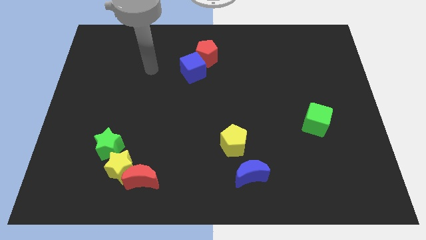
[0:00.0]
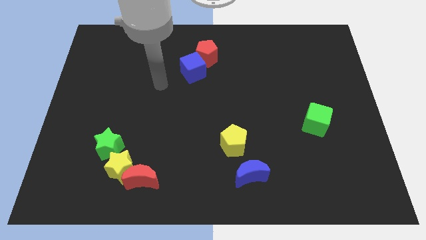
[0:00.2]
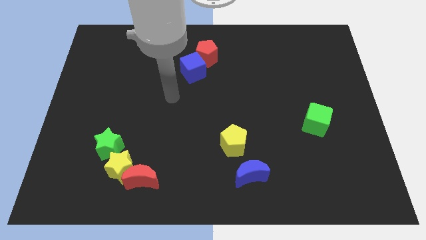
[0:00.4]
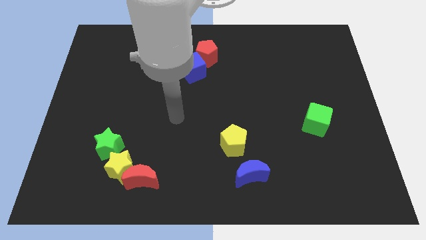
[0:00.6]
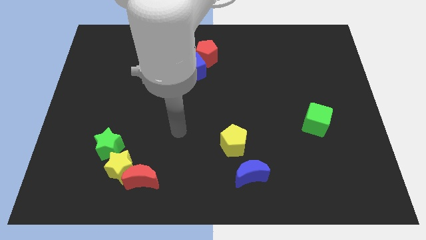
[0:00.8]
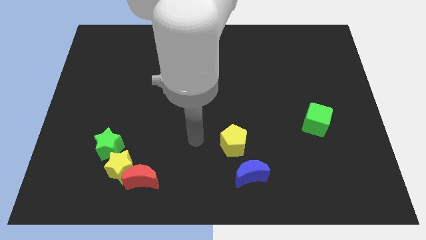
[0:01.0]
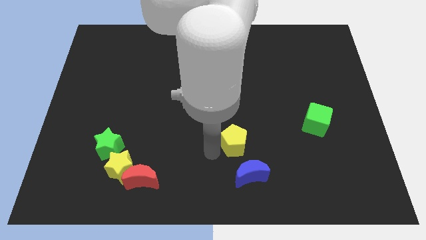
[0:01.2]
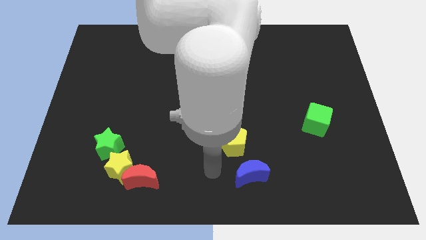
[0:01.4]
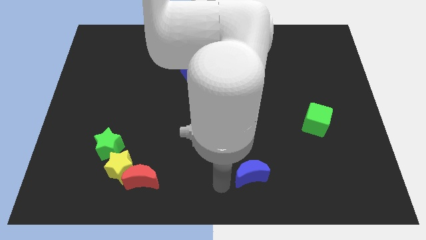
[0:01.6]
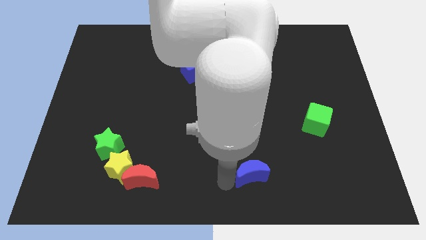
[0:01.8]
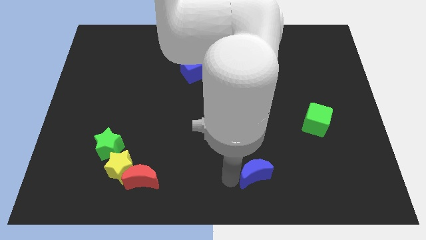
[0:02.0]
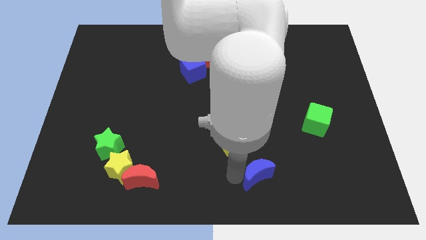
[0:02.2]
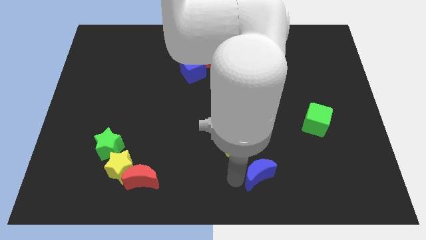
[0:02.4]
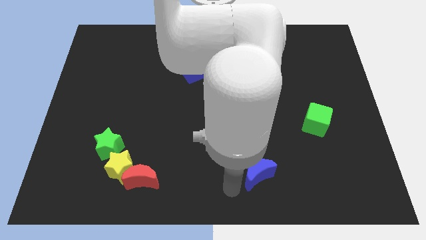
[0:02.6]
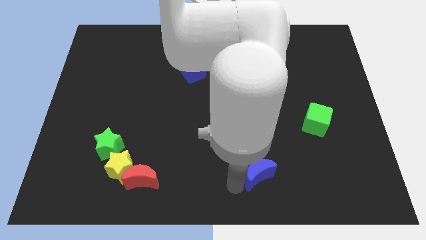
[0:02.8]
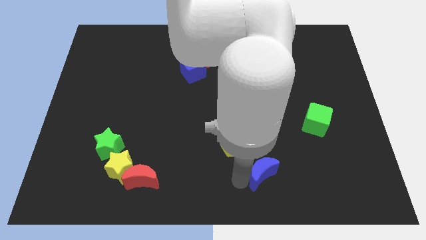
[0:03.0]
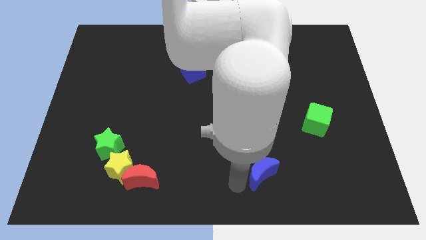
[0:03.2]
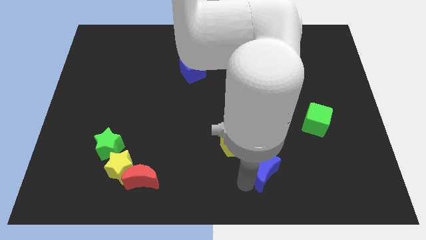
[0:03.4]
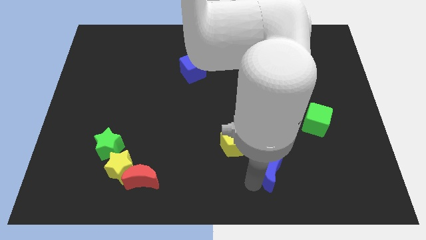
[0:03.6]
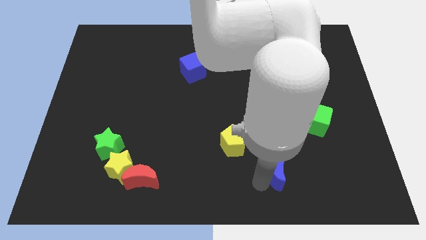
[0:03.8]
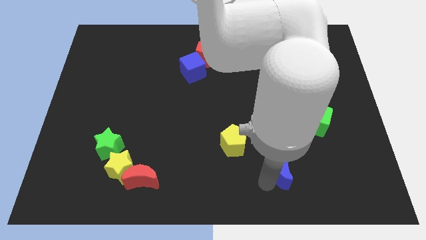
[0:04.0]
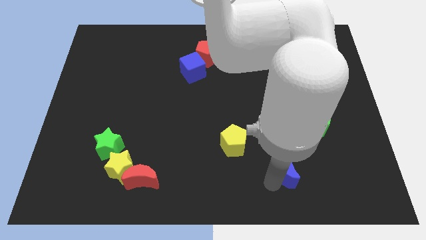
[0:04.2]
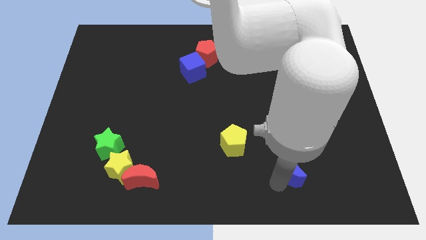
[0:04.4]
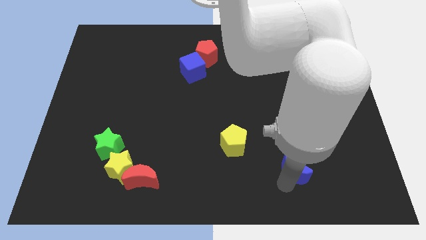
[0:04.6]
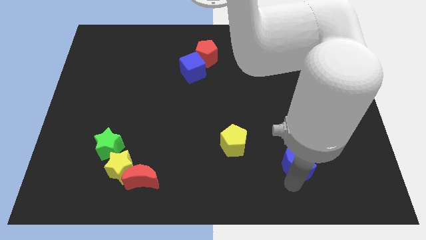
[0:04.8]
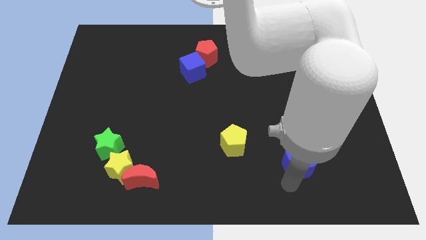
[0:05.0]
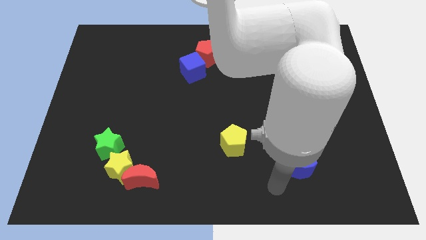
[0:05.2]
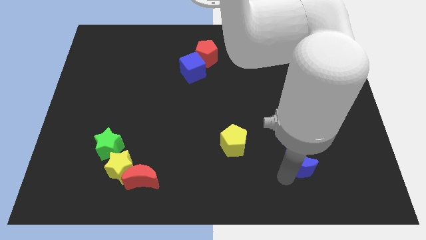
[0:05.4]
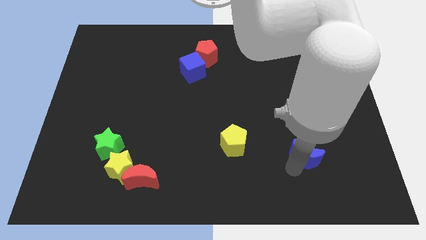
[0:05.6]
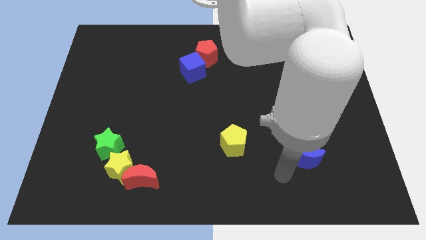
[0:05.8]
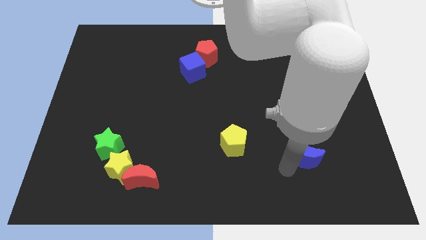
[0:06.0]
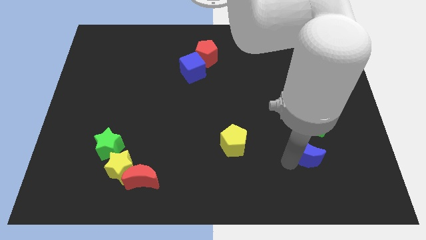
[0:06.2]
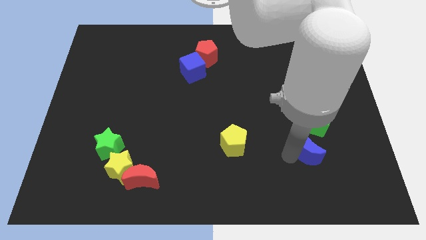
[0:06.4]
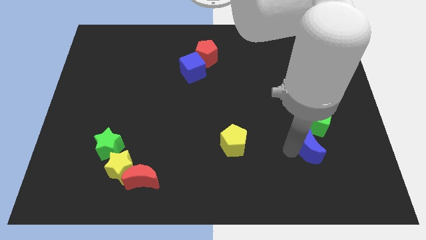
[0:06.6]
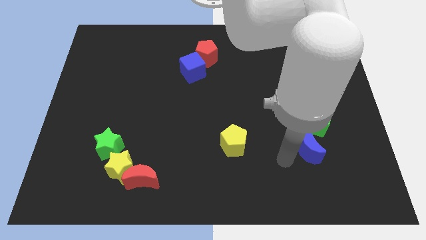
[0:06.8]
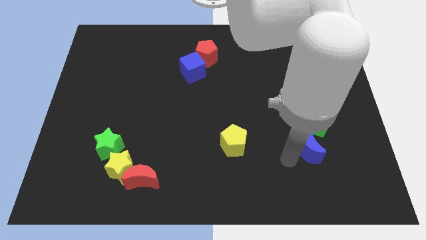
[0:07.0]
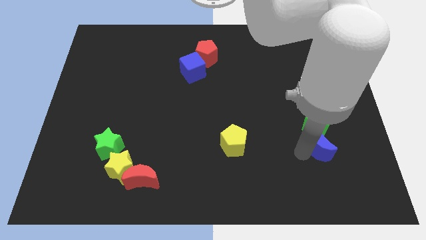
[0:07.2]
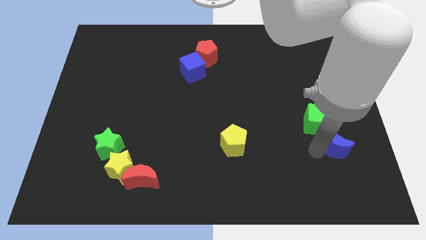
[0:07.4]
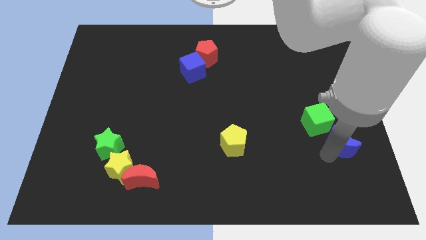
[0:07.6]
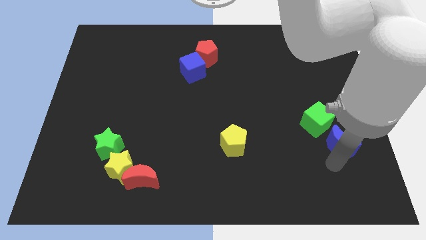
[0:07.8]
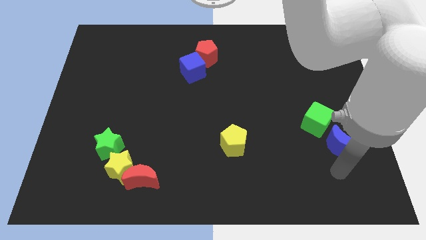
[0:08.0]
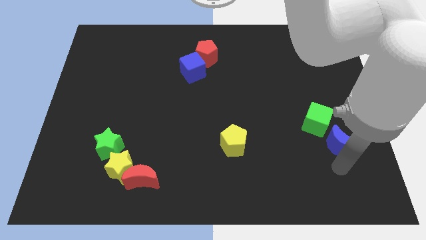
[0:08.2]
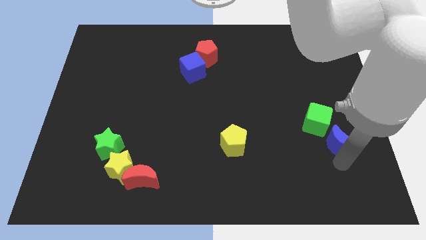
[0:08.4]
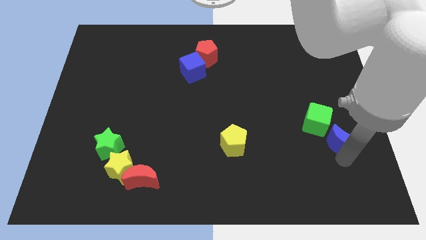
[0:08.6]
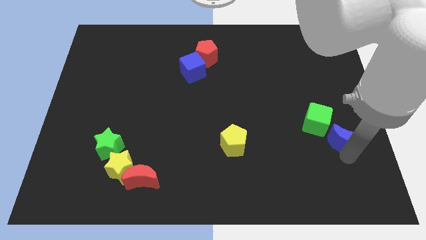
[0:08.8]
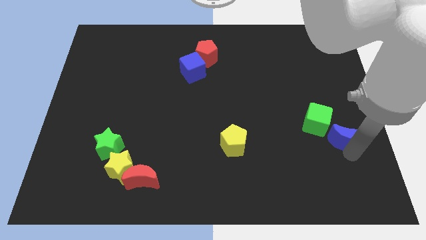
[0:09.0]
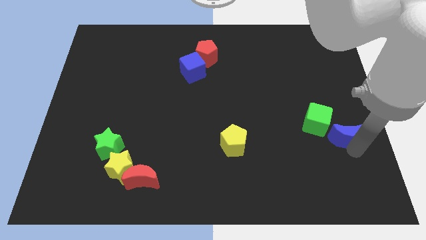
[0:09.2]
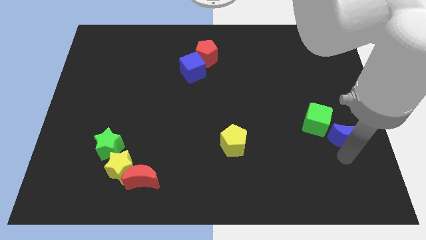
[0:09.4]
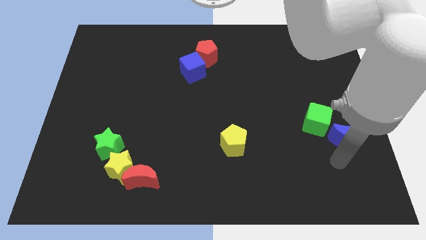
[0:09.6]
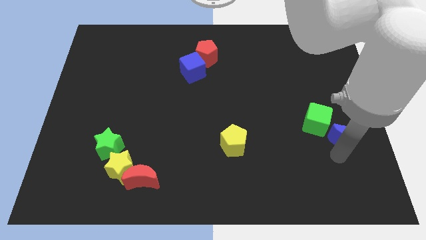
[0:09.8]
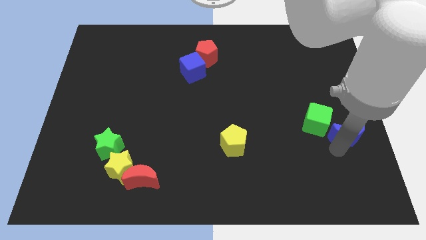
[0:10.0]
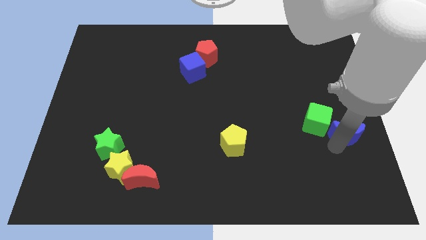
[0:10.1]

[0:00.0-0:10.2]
move the blue moon to the center right

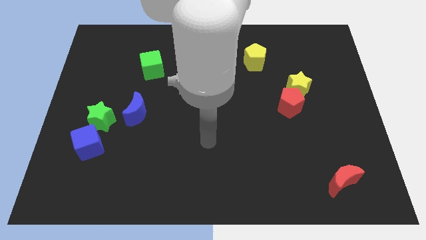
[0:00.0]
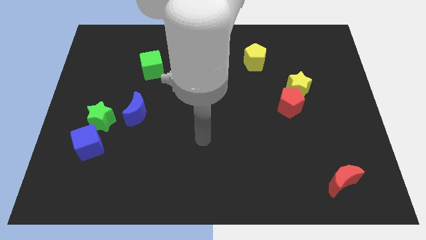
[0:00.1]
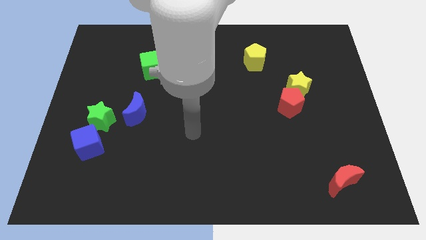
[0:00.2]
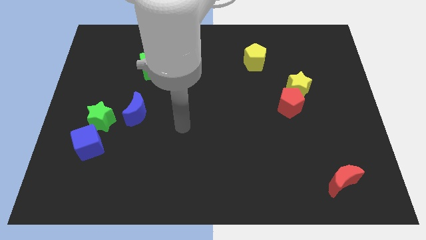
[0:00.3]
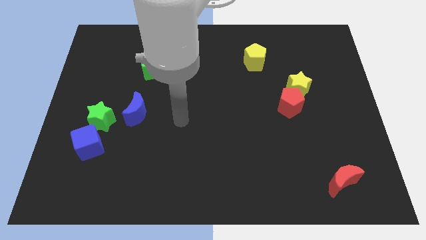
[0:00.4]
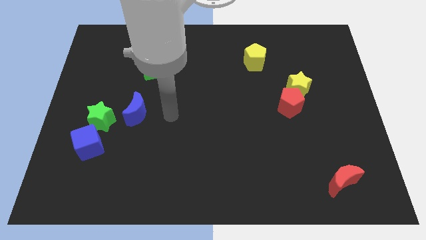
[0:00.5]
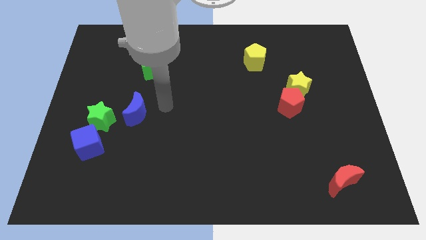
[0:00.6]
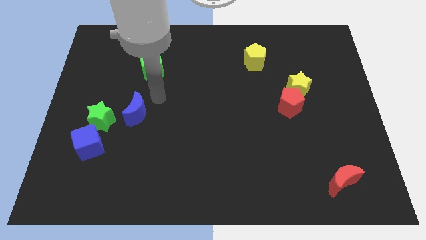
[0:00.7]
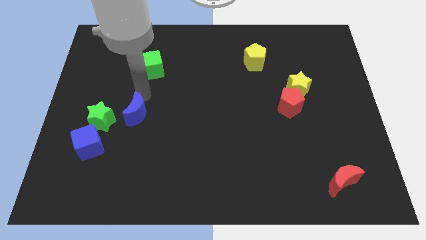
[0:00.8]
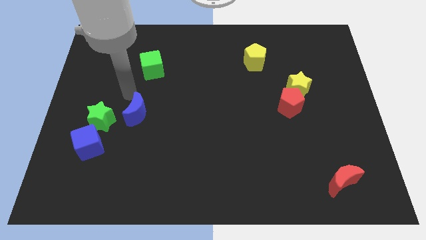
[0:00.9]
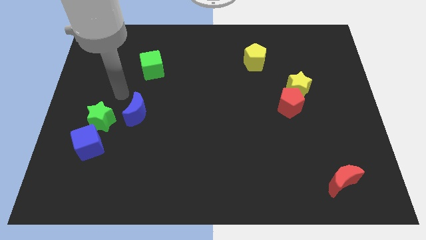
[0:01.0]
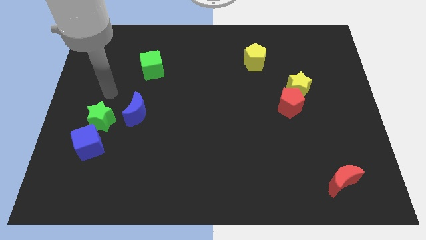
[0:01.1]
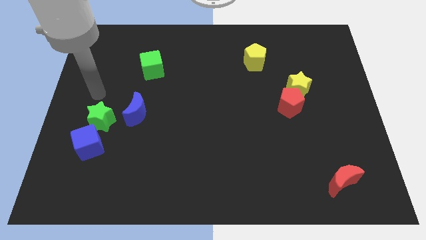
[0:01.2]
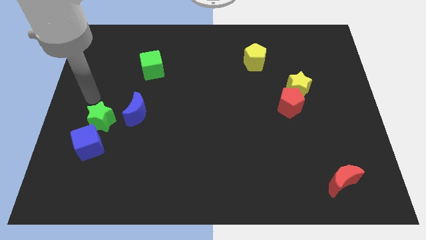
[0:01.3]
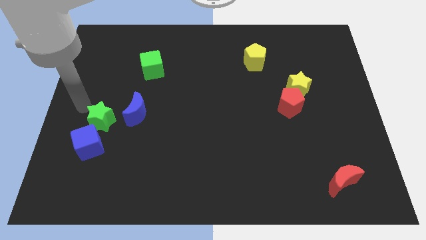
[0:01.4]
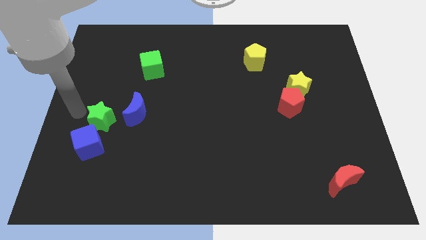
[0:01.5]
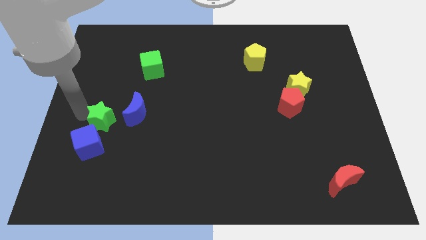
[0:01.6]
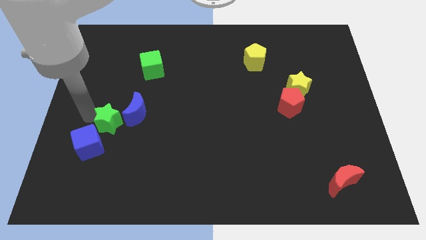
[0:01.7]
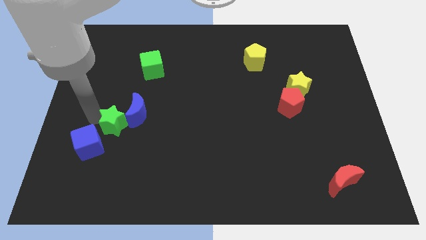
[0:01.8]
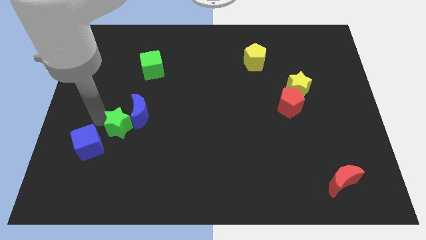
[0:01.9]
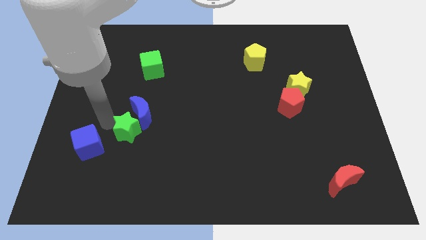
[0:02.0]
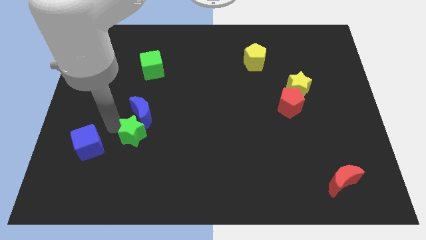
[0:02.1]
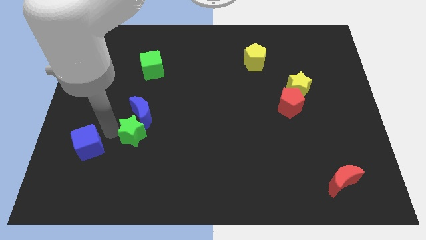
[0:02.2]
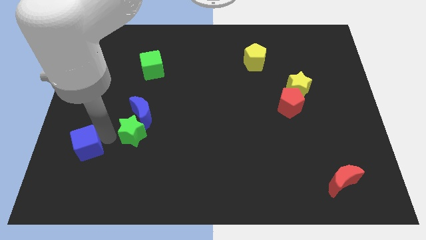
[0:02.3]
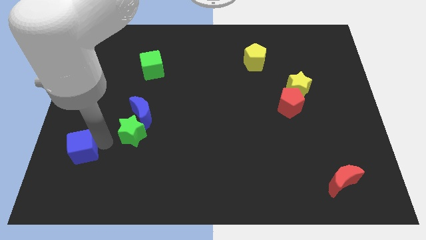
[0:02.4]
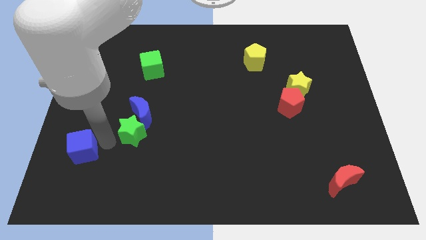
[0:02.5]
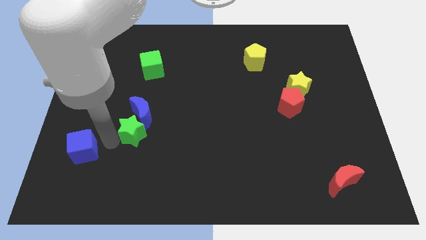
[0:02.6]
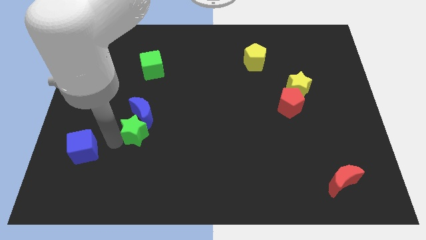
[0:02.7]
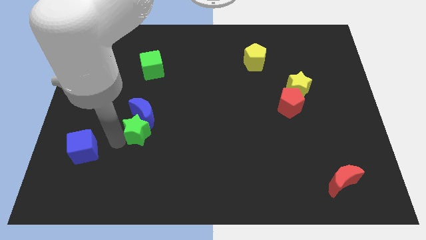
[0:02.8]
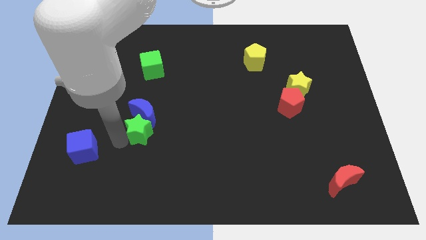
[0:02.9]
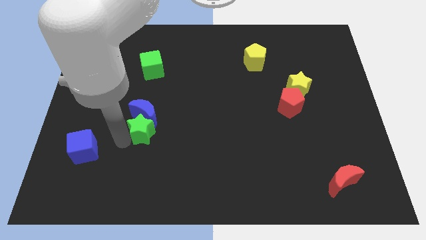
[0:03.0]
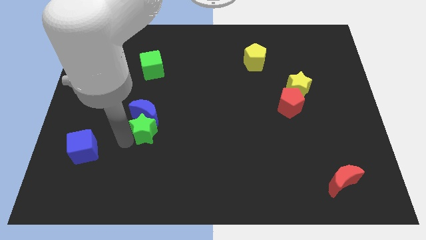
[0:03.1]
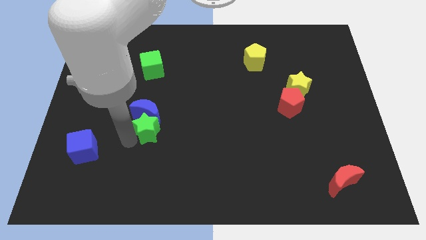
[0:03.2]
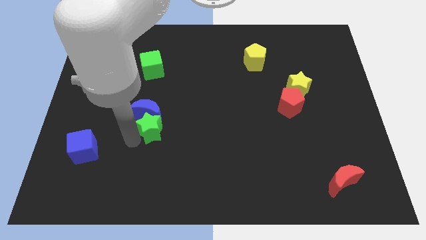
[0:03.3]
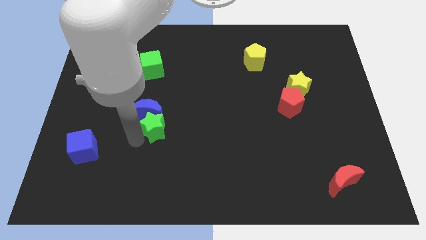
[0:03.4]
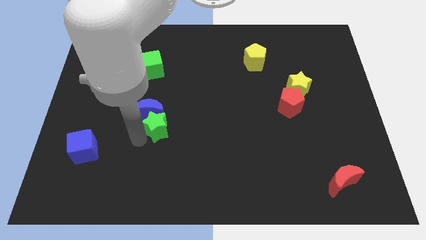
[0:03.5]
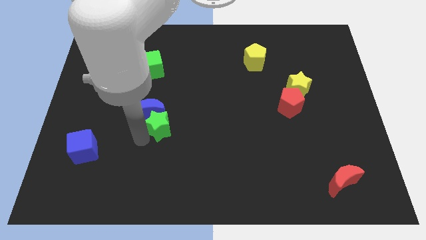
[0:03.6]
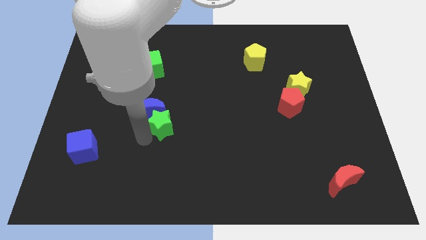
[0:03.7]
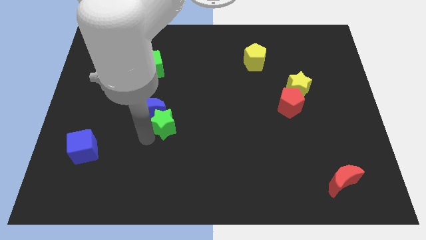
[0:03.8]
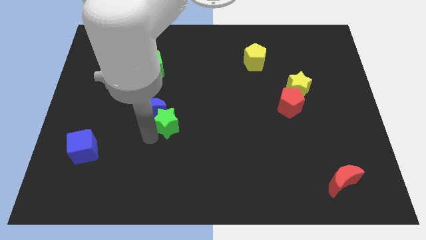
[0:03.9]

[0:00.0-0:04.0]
move the green star to the center
